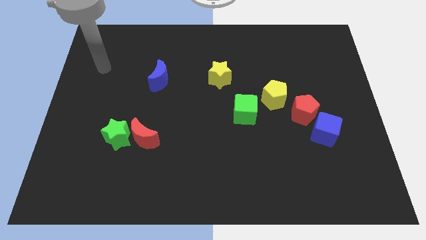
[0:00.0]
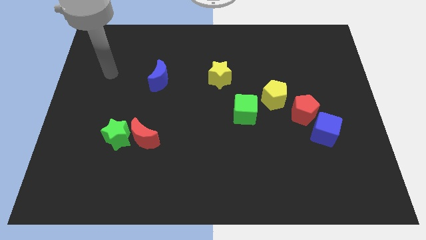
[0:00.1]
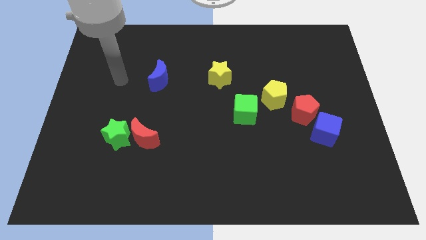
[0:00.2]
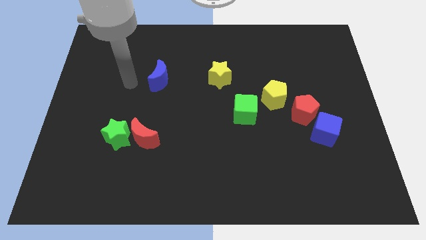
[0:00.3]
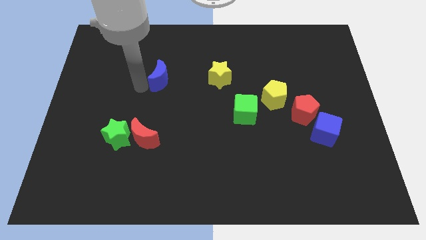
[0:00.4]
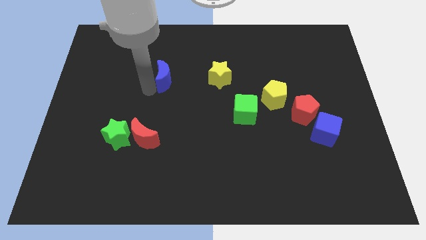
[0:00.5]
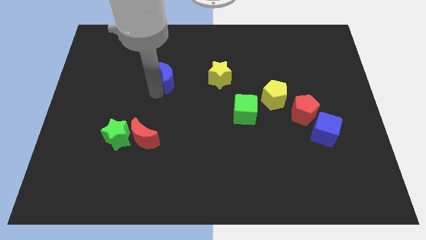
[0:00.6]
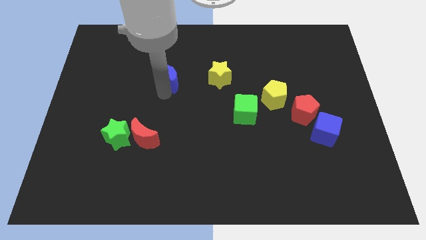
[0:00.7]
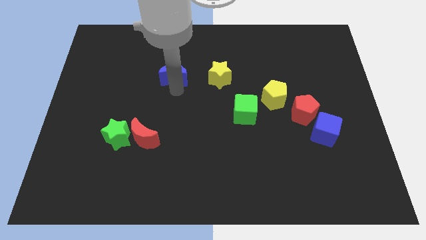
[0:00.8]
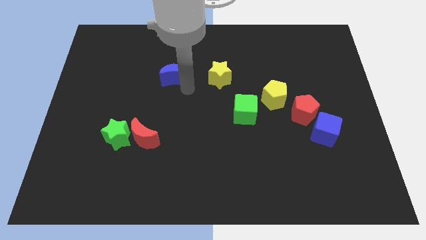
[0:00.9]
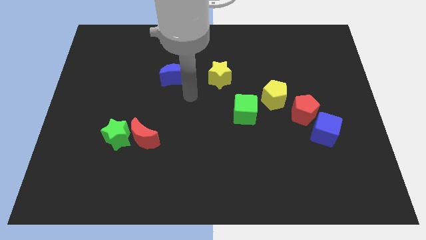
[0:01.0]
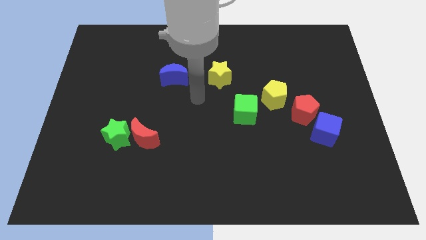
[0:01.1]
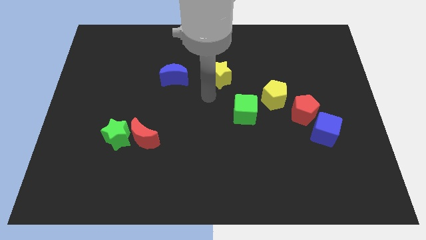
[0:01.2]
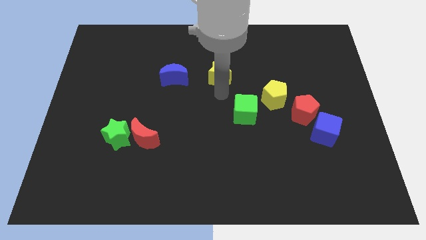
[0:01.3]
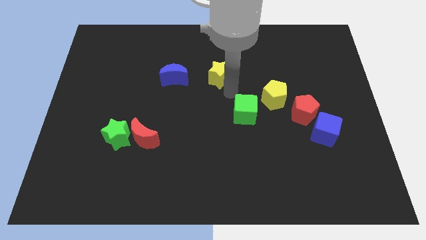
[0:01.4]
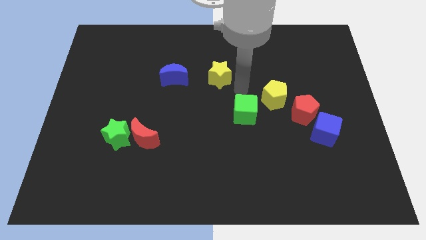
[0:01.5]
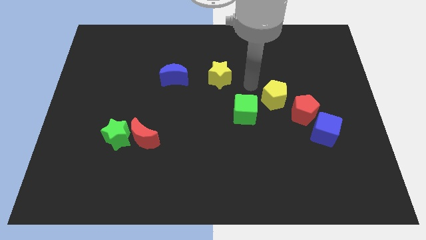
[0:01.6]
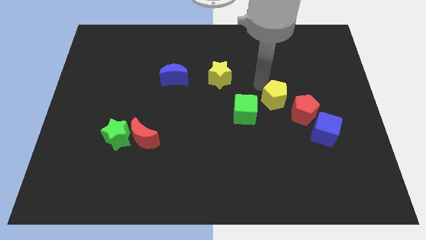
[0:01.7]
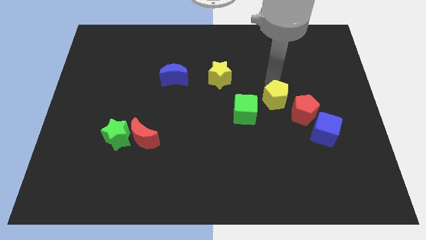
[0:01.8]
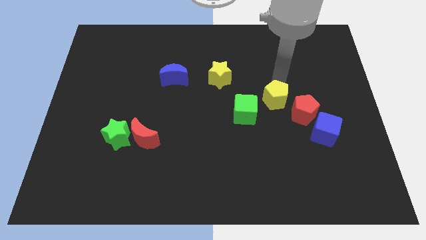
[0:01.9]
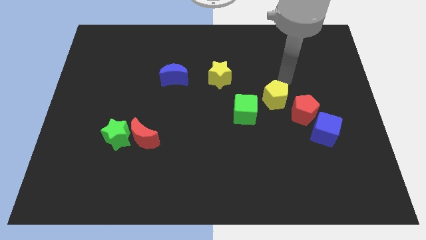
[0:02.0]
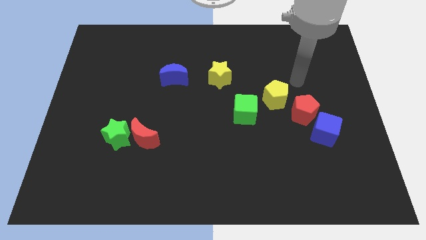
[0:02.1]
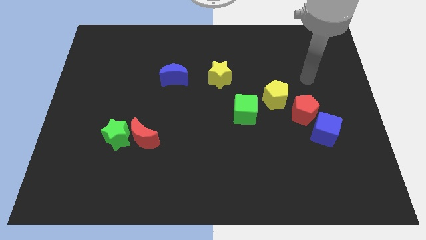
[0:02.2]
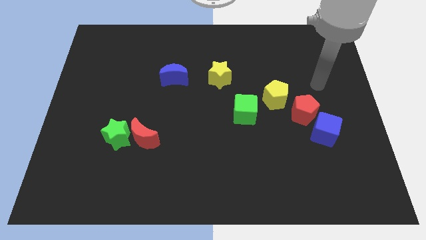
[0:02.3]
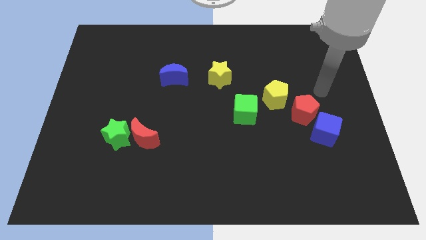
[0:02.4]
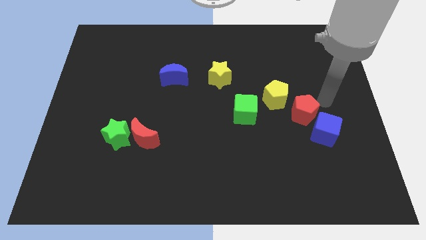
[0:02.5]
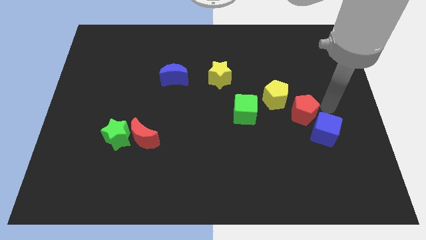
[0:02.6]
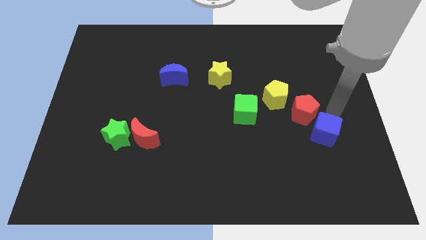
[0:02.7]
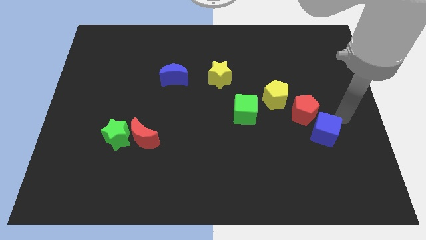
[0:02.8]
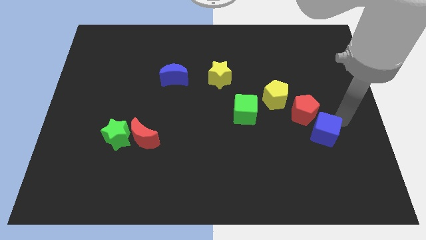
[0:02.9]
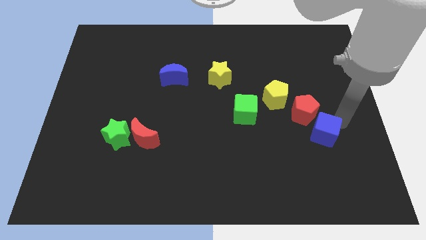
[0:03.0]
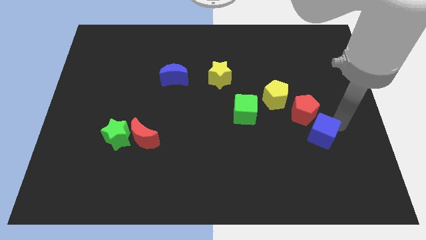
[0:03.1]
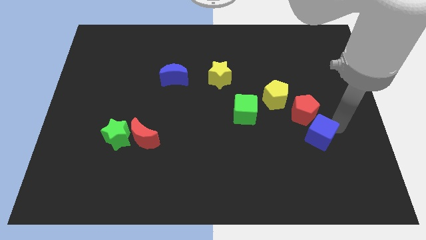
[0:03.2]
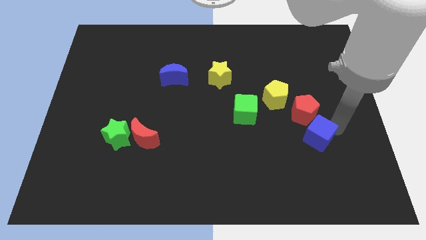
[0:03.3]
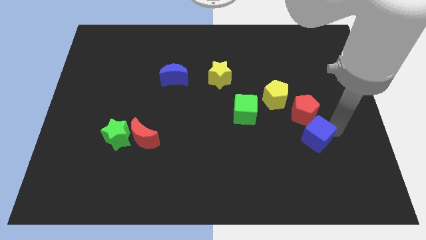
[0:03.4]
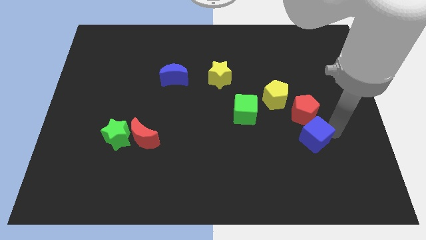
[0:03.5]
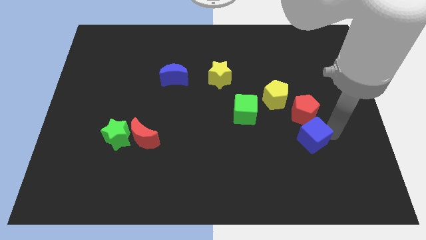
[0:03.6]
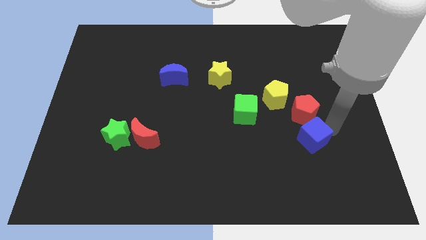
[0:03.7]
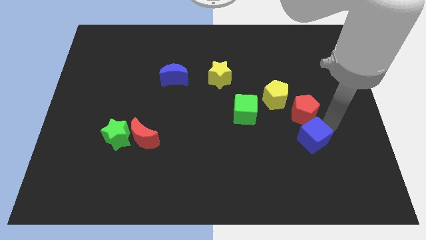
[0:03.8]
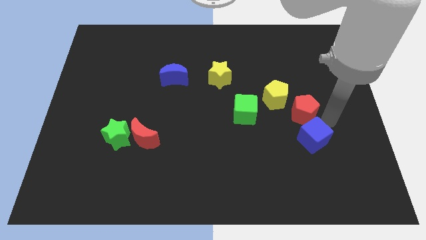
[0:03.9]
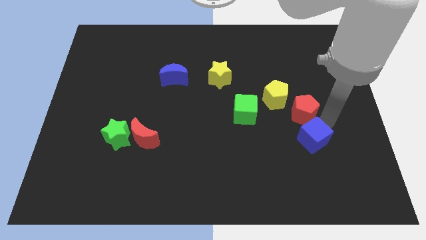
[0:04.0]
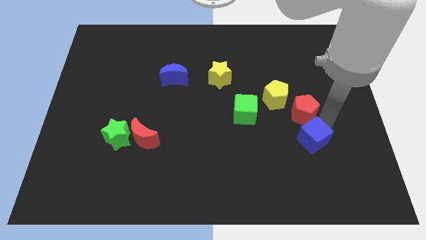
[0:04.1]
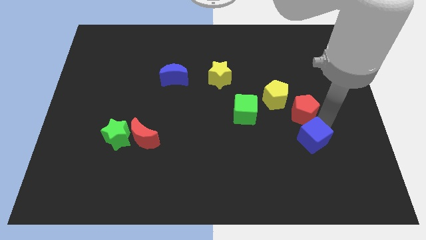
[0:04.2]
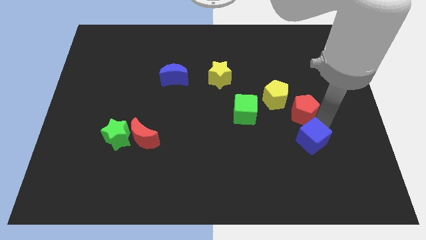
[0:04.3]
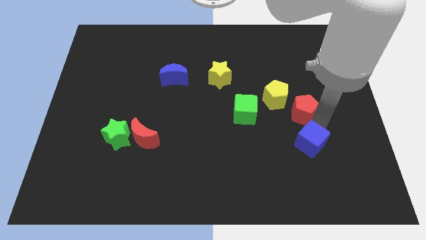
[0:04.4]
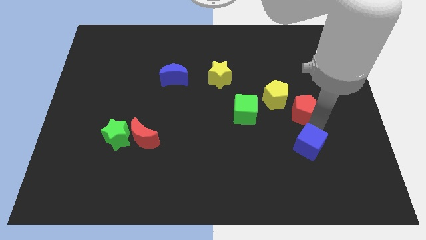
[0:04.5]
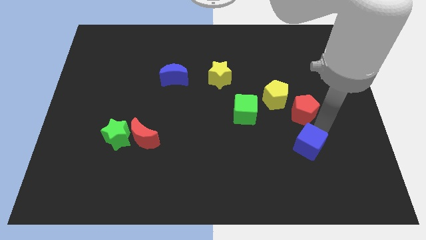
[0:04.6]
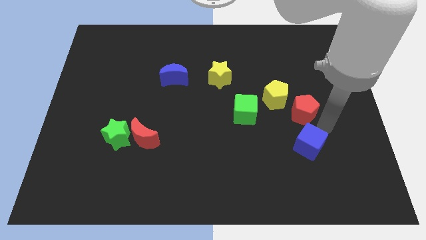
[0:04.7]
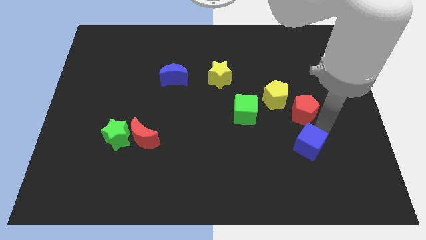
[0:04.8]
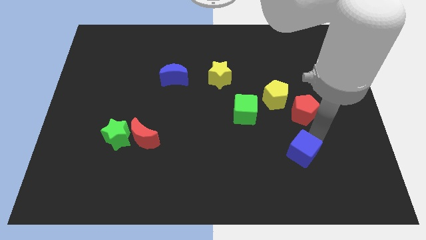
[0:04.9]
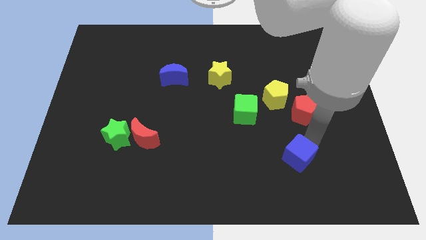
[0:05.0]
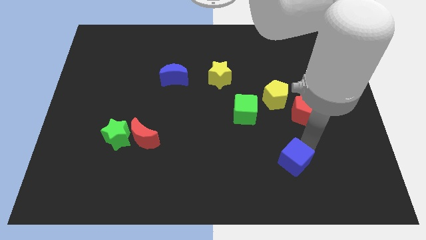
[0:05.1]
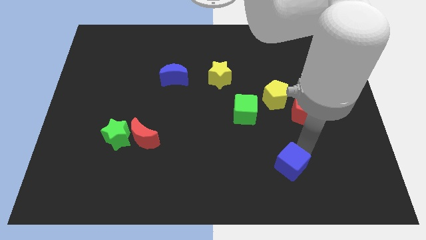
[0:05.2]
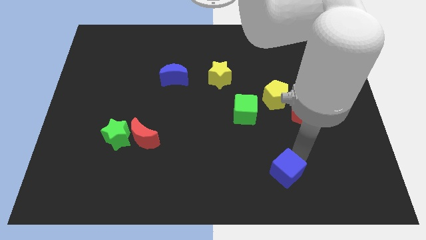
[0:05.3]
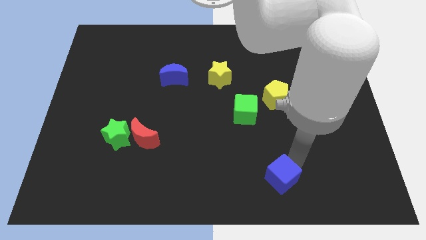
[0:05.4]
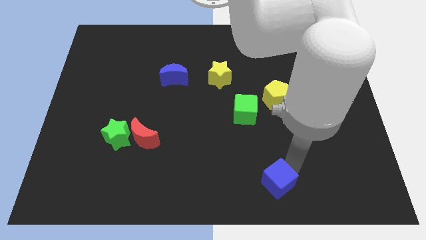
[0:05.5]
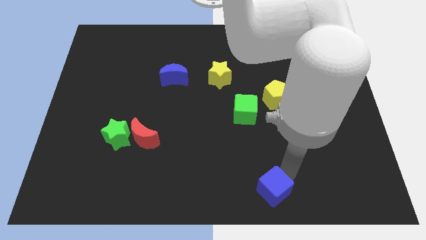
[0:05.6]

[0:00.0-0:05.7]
put the blue cube to the bottom side

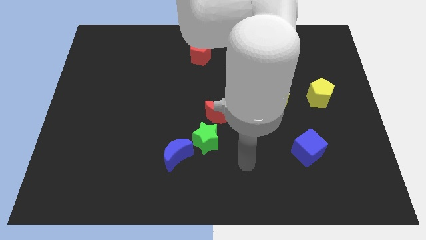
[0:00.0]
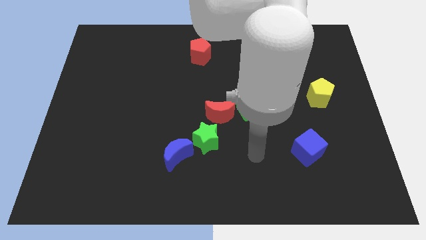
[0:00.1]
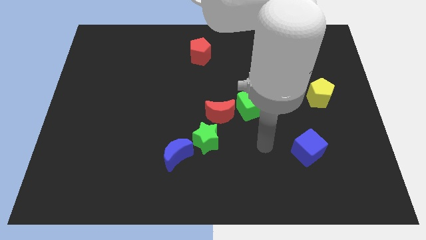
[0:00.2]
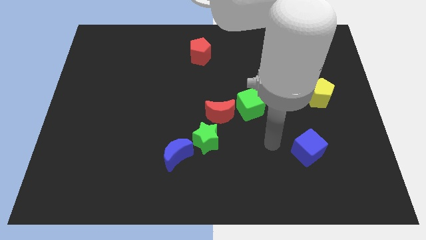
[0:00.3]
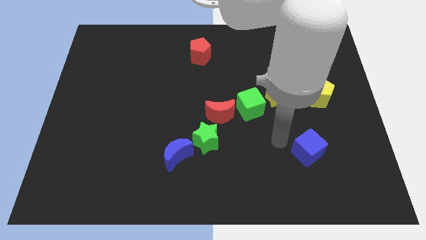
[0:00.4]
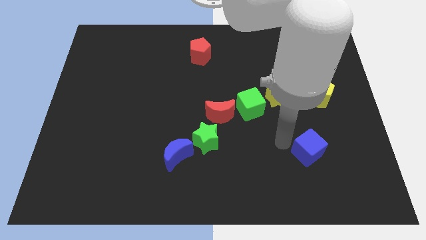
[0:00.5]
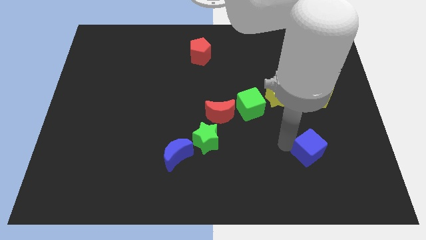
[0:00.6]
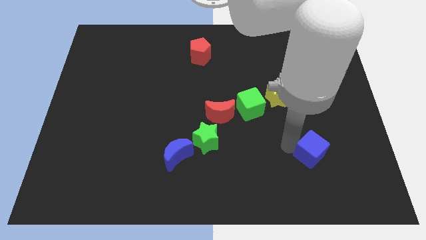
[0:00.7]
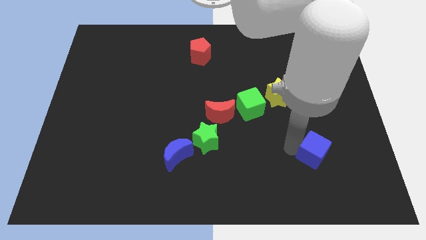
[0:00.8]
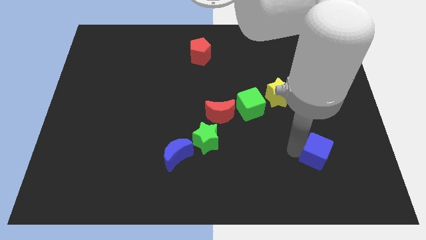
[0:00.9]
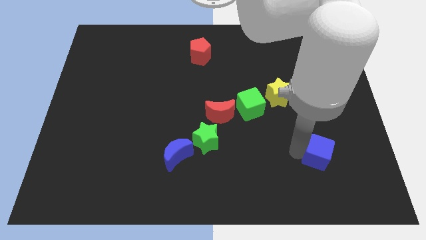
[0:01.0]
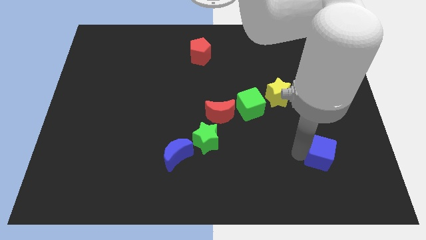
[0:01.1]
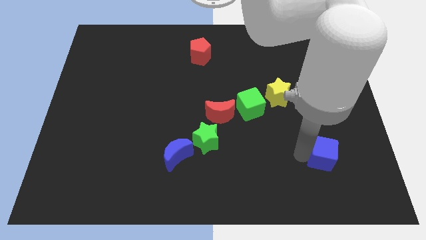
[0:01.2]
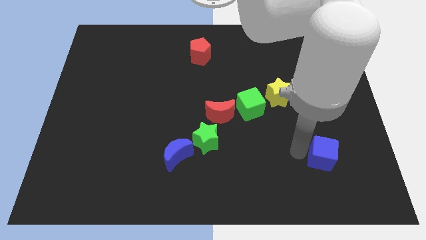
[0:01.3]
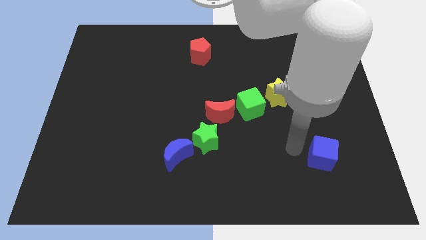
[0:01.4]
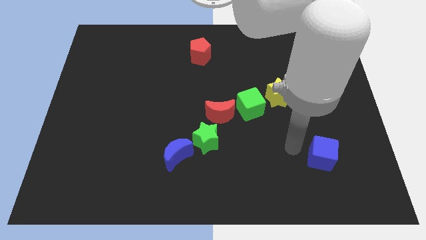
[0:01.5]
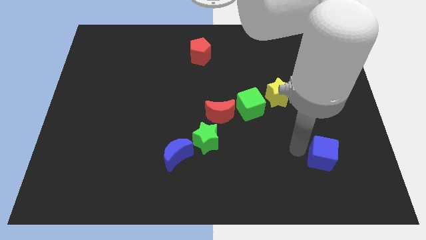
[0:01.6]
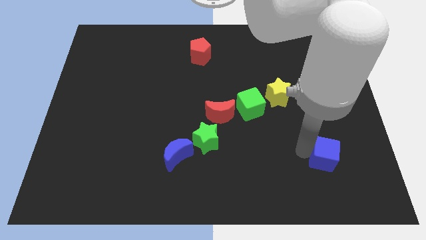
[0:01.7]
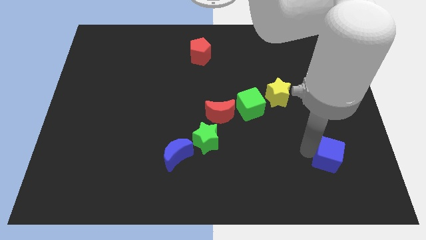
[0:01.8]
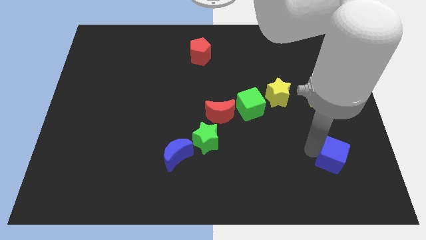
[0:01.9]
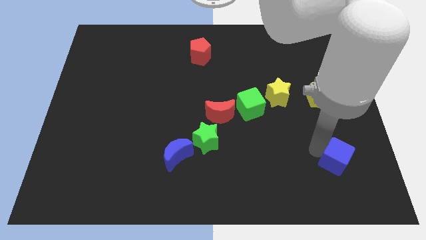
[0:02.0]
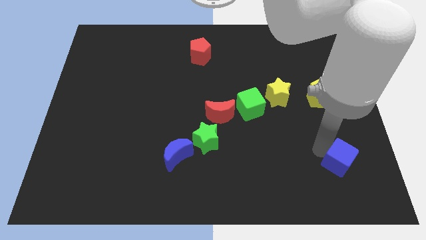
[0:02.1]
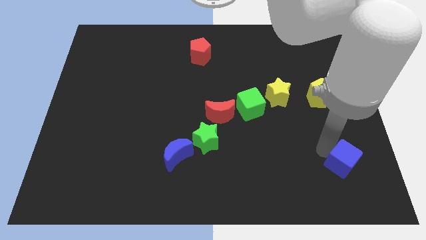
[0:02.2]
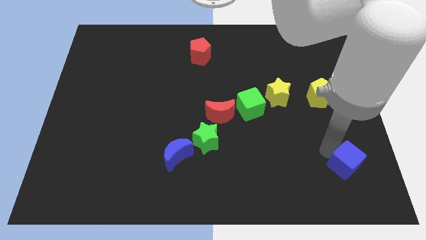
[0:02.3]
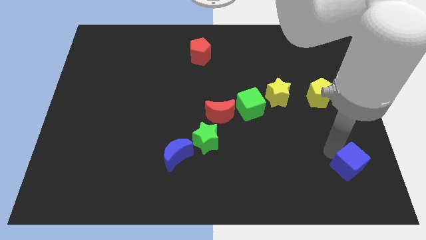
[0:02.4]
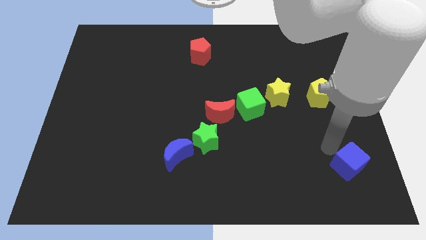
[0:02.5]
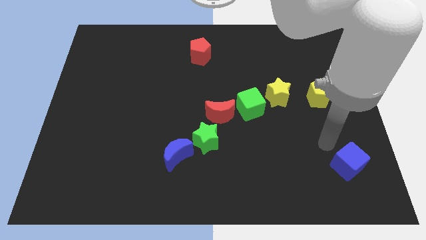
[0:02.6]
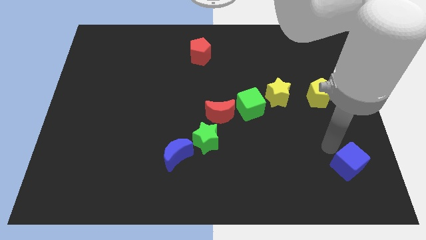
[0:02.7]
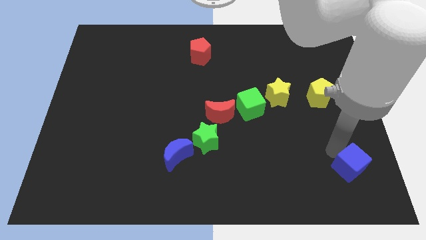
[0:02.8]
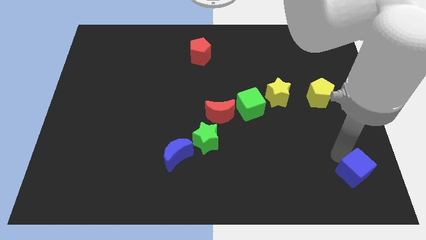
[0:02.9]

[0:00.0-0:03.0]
move the blue cube to the lower right corner
